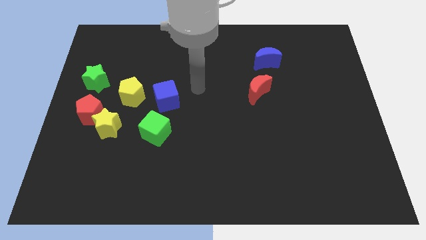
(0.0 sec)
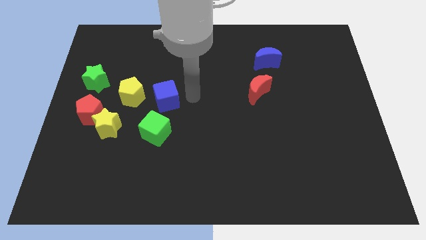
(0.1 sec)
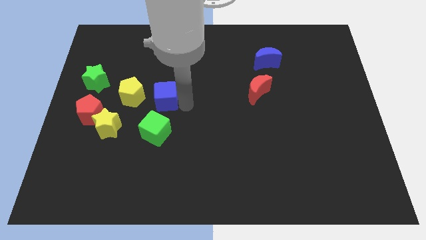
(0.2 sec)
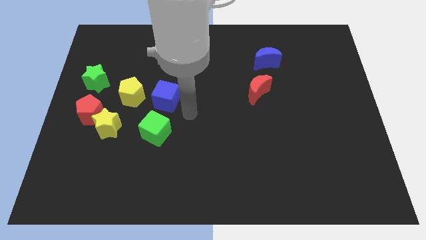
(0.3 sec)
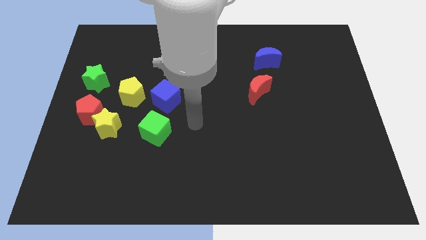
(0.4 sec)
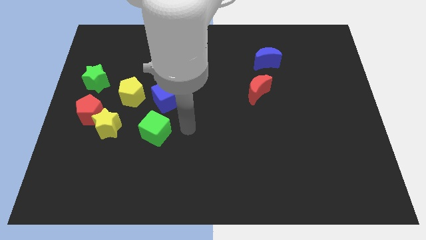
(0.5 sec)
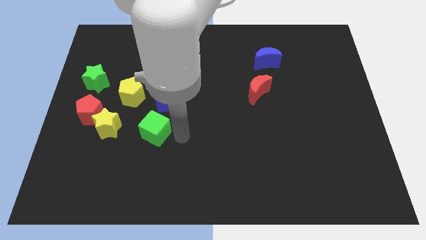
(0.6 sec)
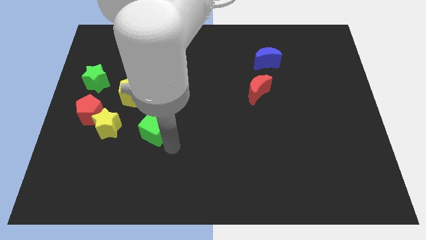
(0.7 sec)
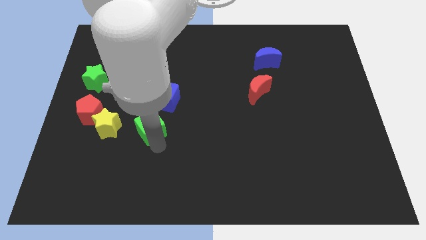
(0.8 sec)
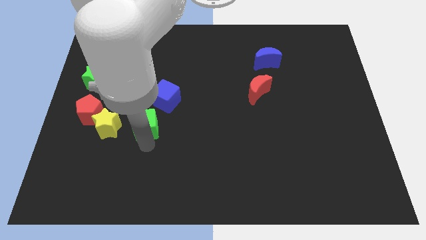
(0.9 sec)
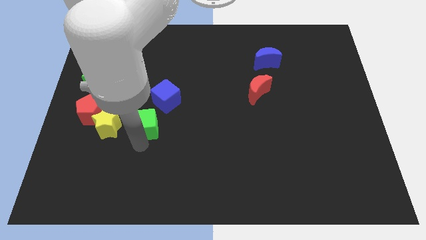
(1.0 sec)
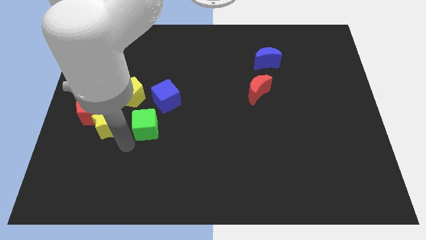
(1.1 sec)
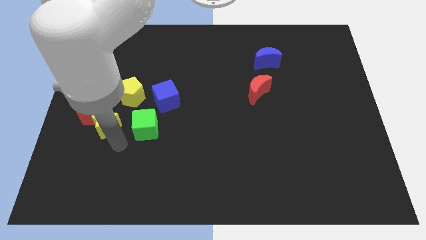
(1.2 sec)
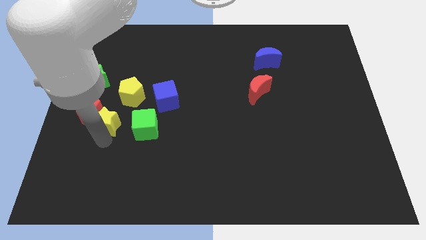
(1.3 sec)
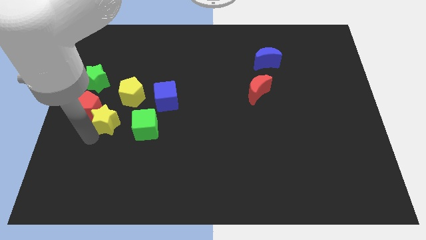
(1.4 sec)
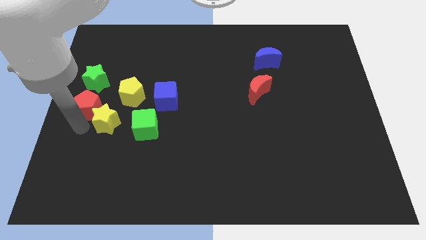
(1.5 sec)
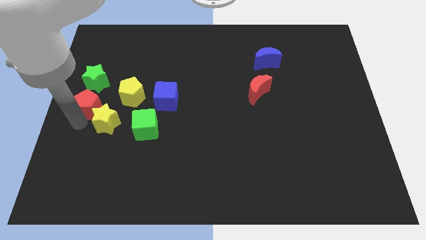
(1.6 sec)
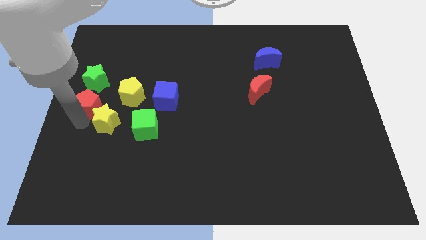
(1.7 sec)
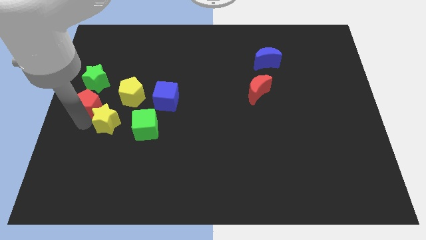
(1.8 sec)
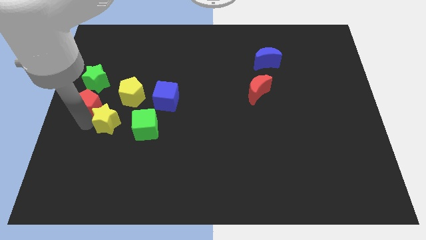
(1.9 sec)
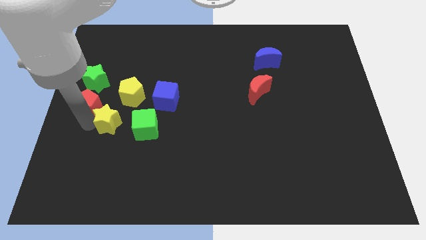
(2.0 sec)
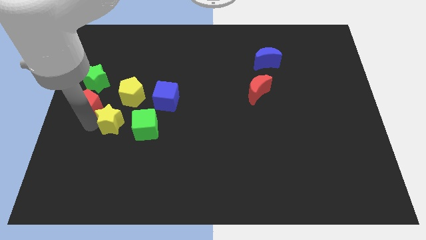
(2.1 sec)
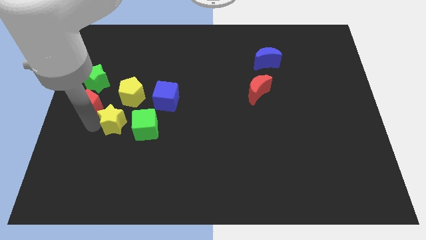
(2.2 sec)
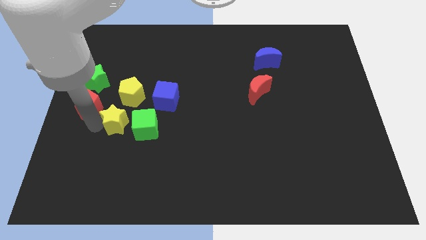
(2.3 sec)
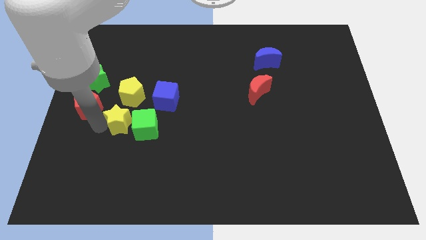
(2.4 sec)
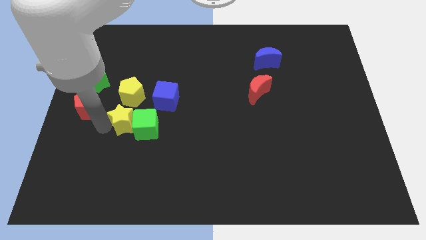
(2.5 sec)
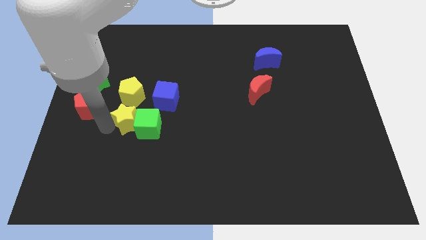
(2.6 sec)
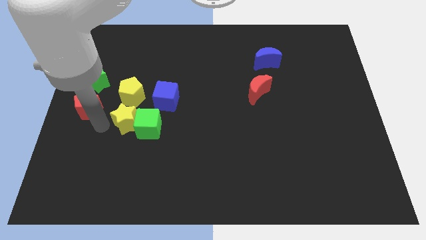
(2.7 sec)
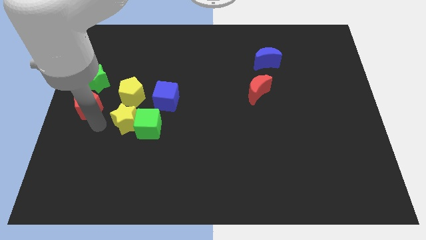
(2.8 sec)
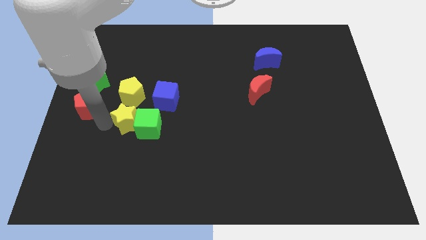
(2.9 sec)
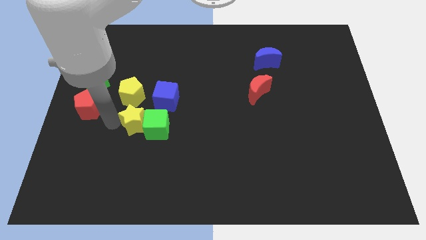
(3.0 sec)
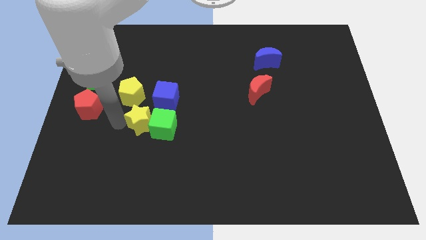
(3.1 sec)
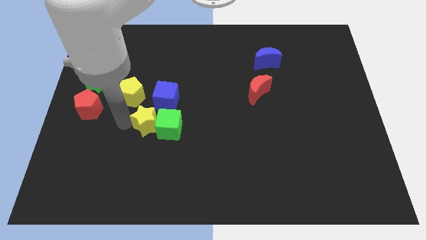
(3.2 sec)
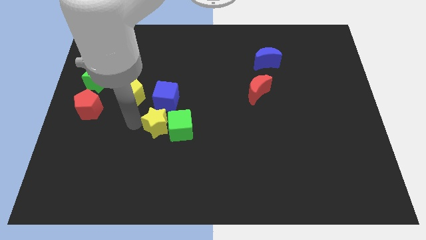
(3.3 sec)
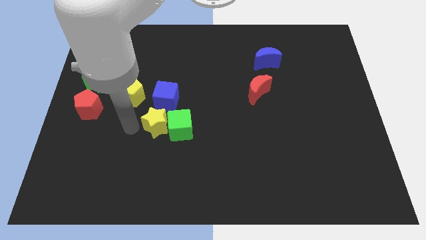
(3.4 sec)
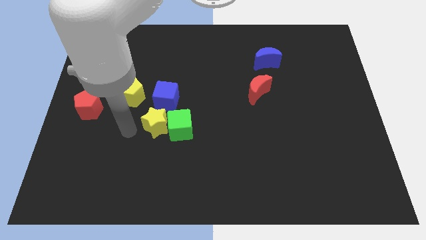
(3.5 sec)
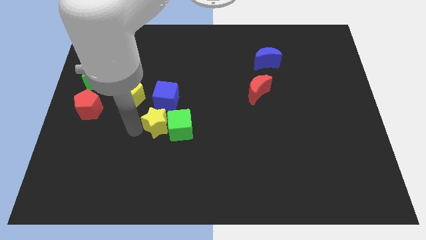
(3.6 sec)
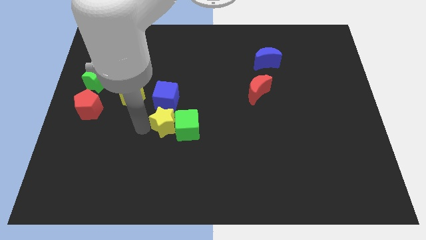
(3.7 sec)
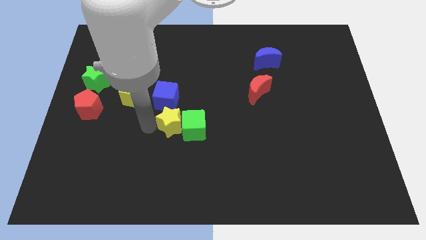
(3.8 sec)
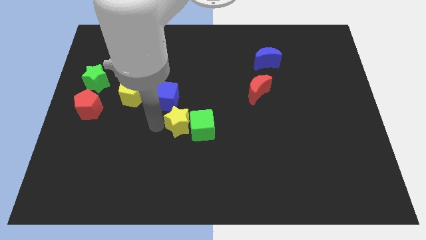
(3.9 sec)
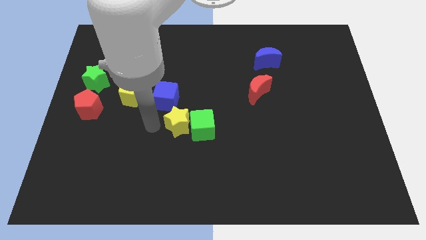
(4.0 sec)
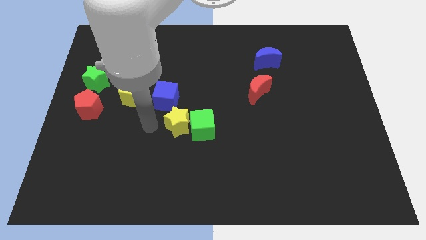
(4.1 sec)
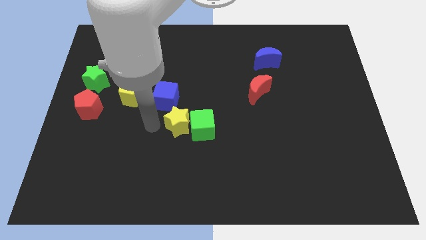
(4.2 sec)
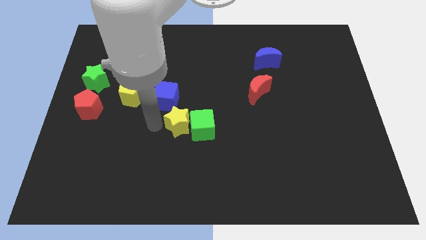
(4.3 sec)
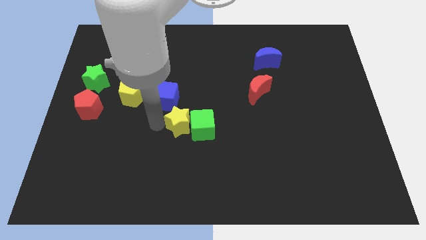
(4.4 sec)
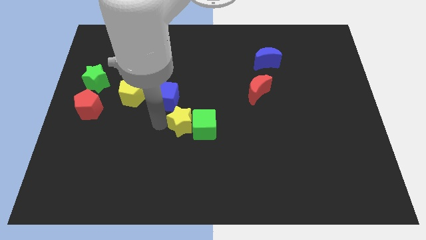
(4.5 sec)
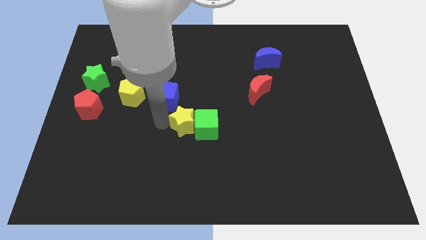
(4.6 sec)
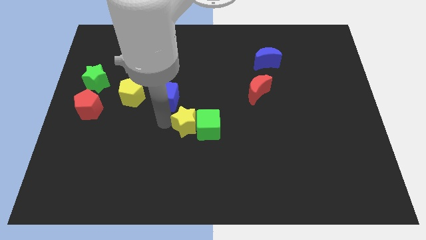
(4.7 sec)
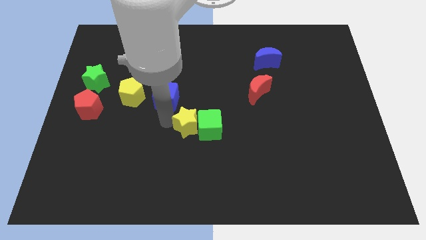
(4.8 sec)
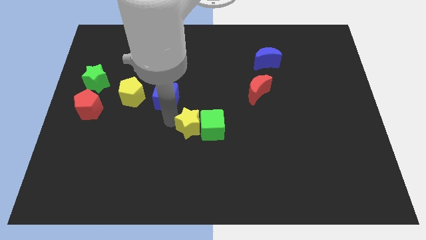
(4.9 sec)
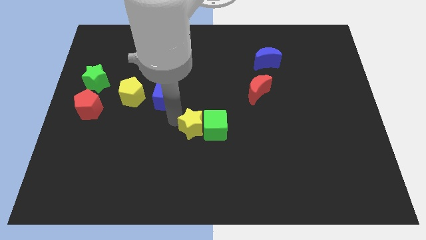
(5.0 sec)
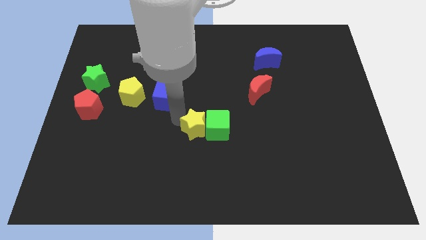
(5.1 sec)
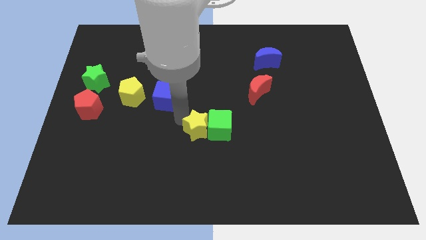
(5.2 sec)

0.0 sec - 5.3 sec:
slide the yellow star right

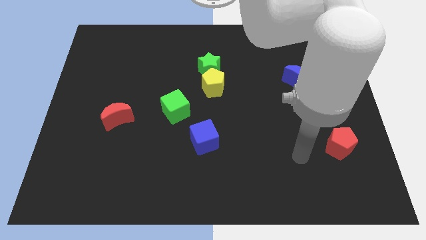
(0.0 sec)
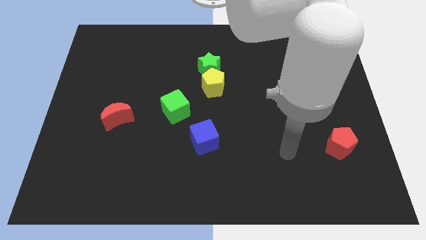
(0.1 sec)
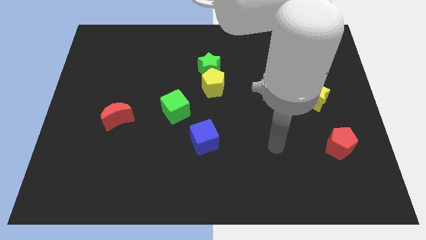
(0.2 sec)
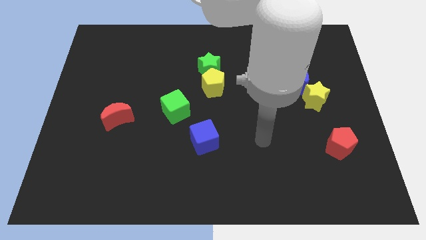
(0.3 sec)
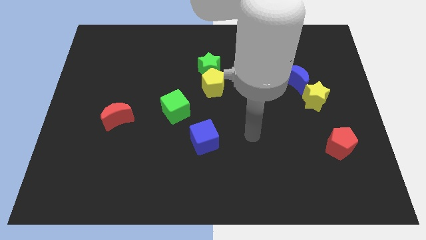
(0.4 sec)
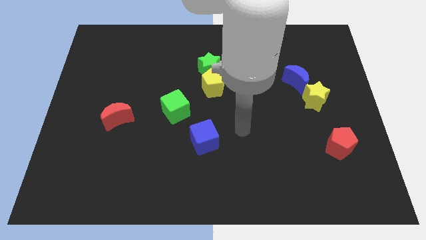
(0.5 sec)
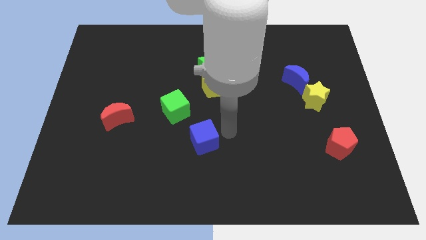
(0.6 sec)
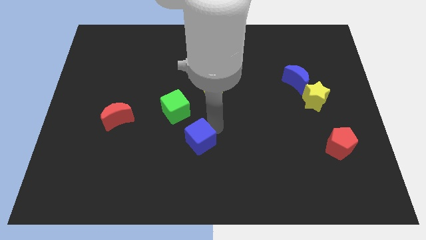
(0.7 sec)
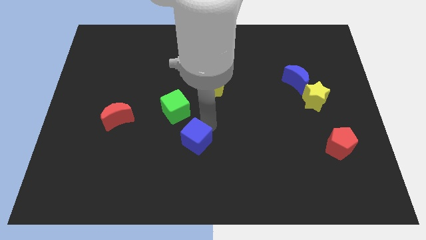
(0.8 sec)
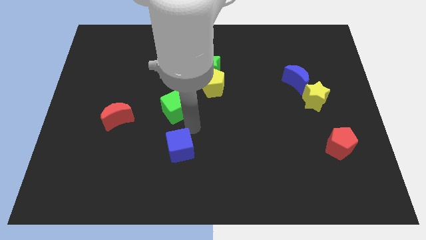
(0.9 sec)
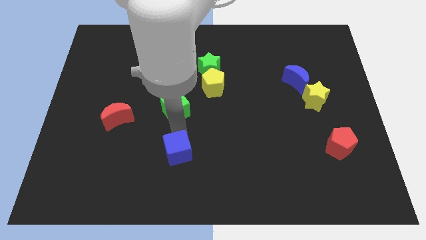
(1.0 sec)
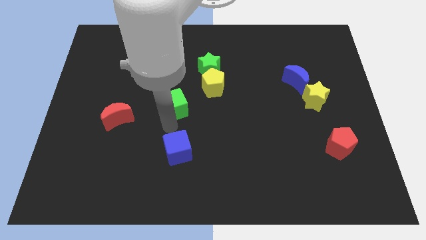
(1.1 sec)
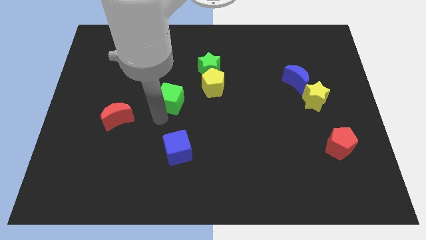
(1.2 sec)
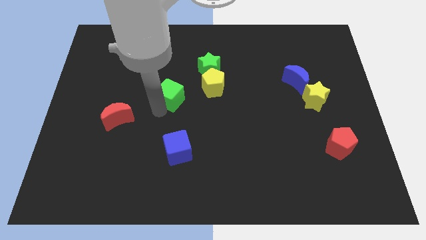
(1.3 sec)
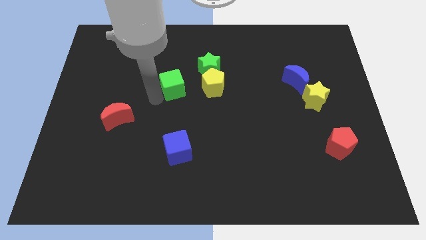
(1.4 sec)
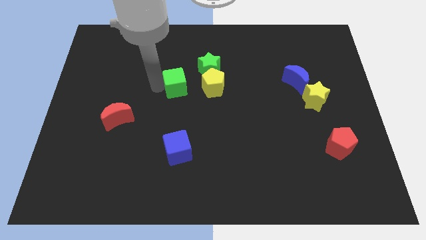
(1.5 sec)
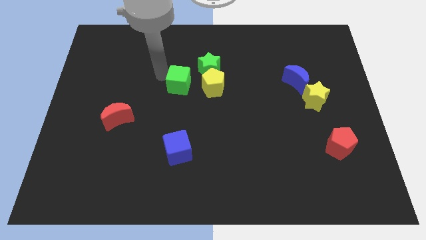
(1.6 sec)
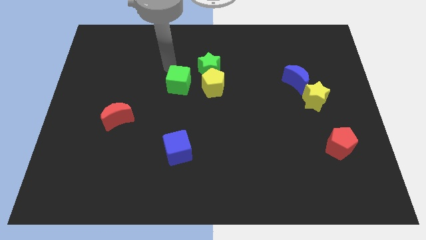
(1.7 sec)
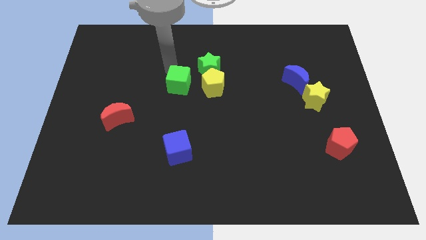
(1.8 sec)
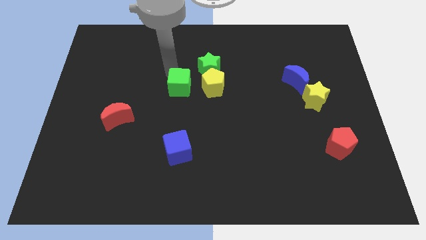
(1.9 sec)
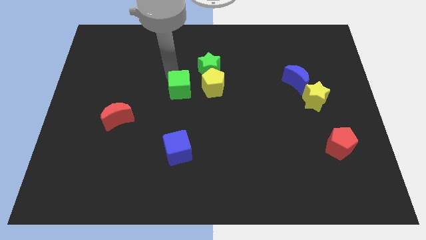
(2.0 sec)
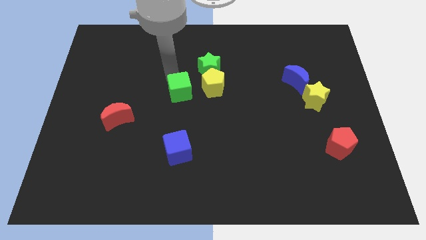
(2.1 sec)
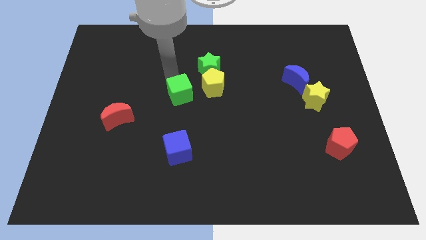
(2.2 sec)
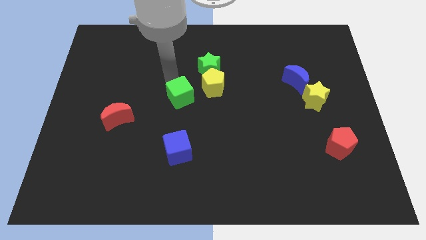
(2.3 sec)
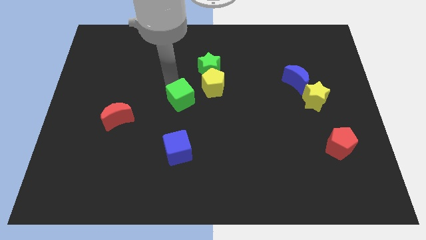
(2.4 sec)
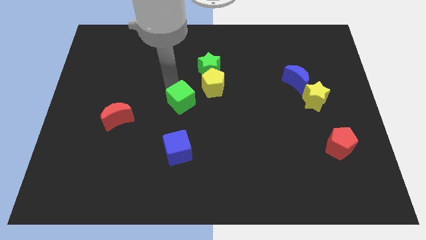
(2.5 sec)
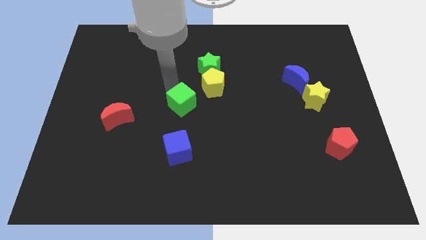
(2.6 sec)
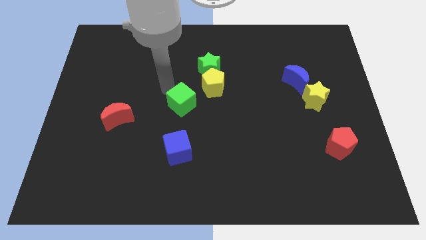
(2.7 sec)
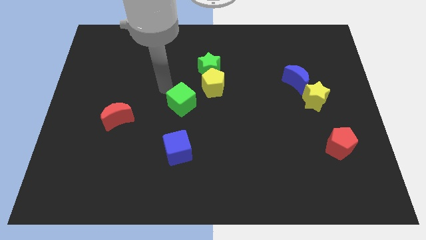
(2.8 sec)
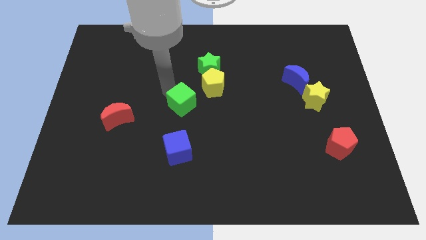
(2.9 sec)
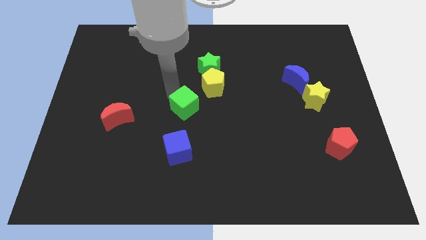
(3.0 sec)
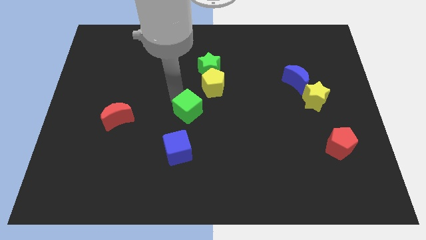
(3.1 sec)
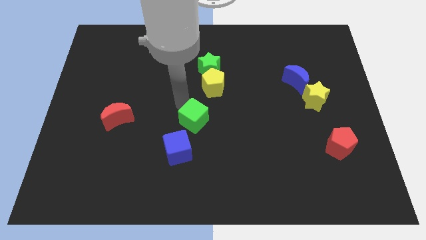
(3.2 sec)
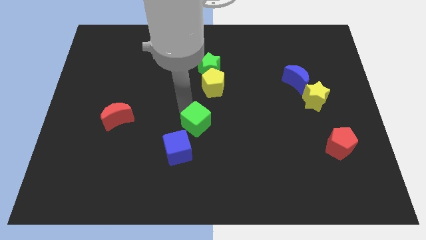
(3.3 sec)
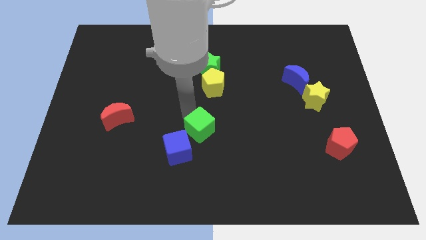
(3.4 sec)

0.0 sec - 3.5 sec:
slide the green cube down and then right somewhat
